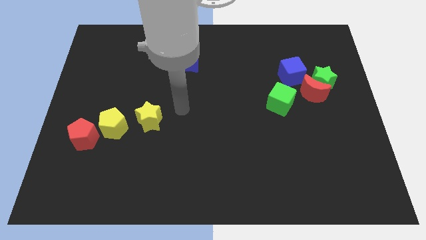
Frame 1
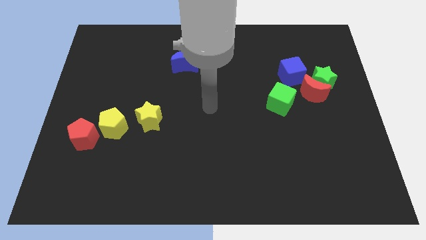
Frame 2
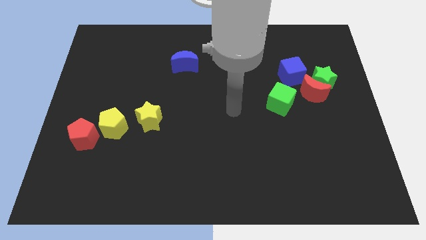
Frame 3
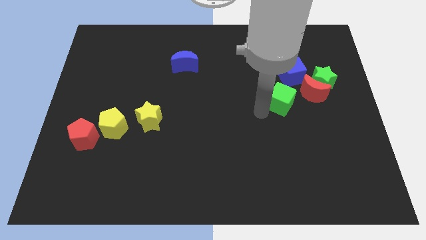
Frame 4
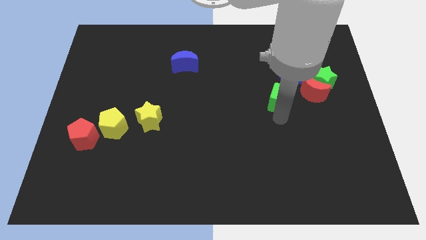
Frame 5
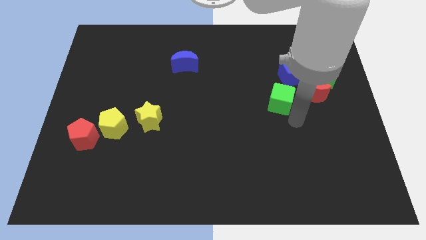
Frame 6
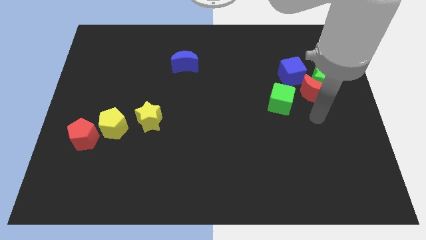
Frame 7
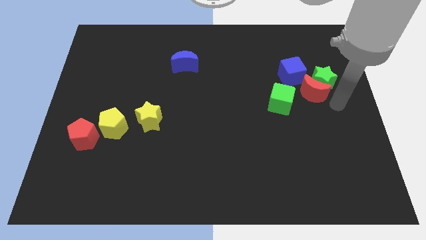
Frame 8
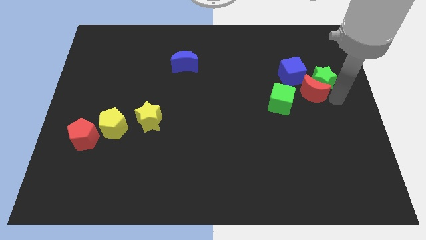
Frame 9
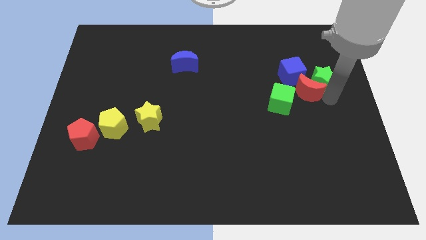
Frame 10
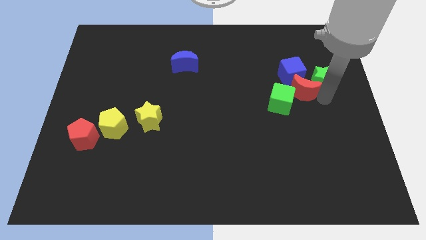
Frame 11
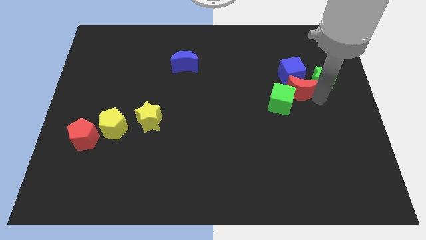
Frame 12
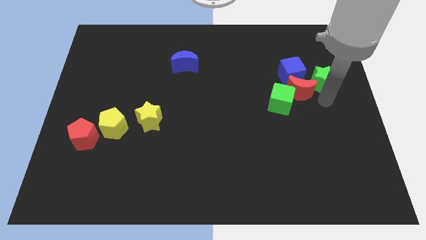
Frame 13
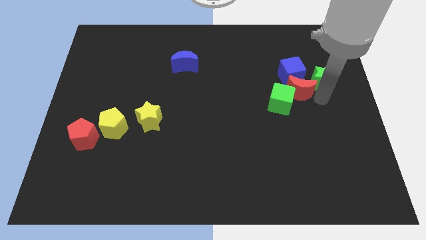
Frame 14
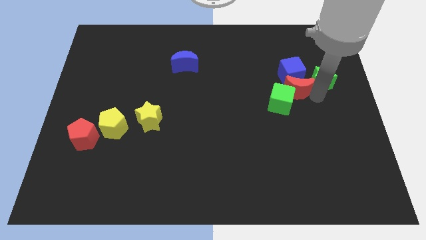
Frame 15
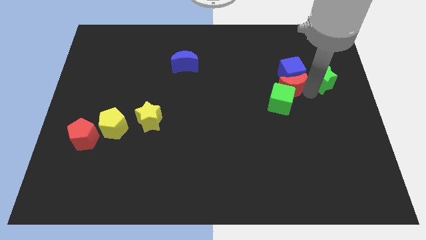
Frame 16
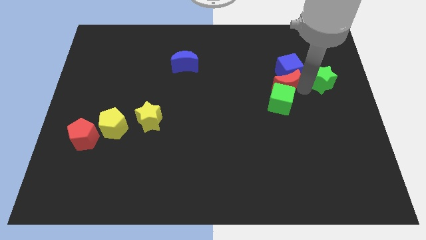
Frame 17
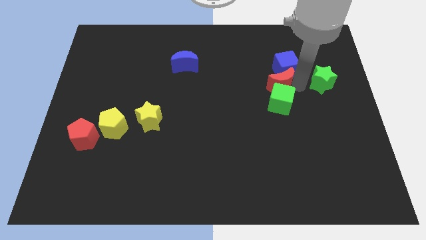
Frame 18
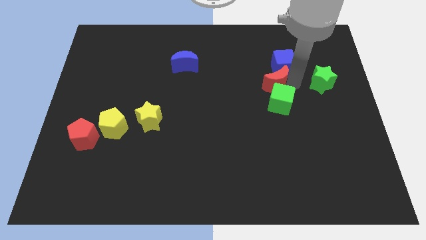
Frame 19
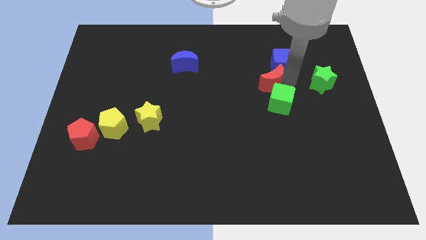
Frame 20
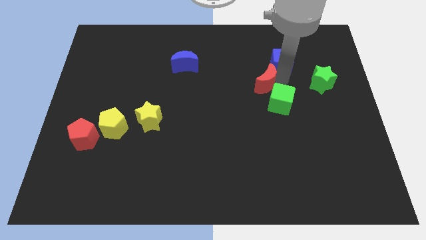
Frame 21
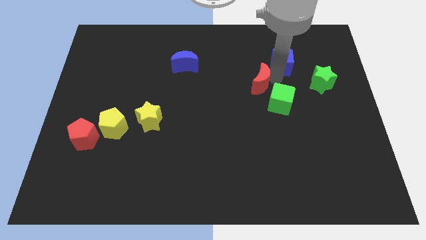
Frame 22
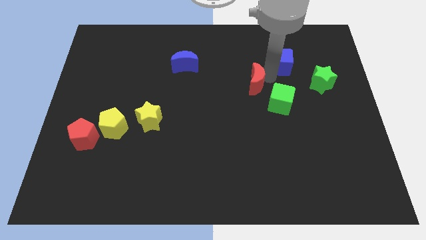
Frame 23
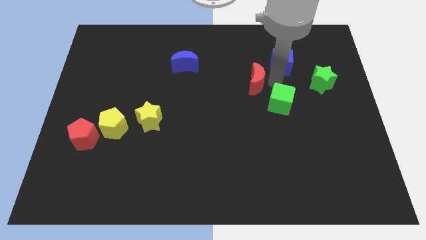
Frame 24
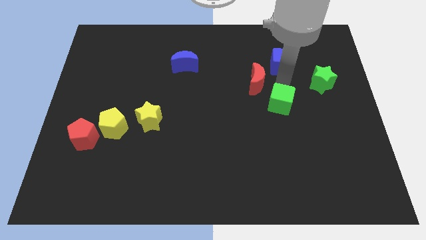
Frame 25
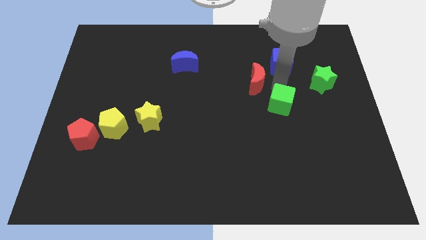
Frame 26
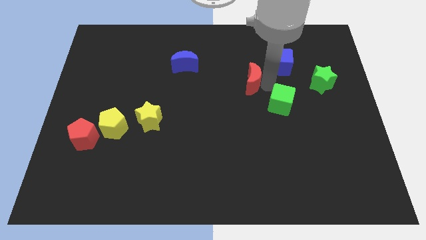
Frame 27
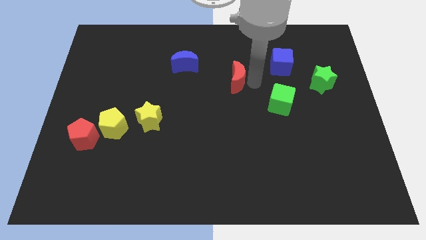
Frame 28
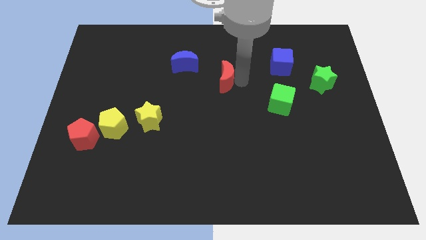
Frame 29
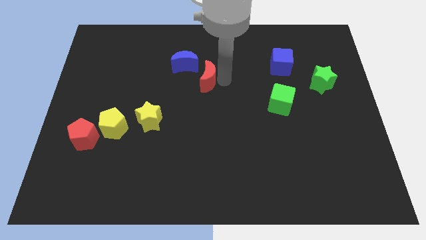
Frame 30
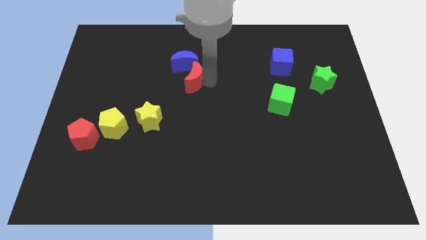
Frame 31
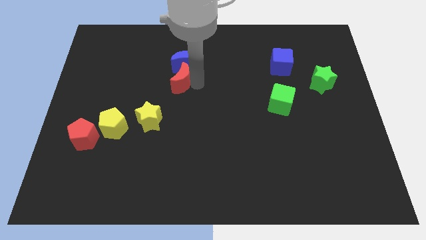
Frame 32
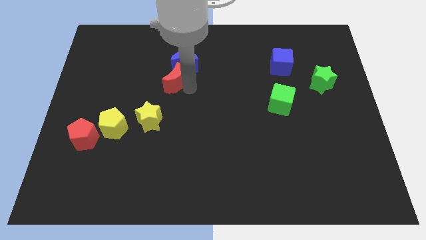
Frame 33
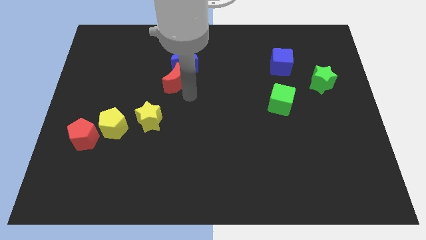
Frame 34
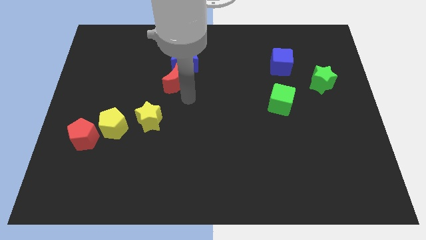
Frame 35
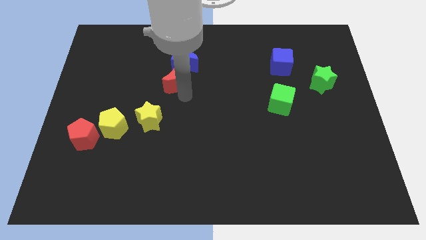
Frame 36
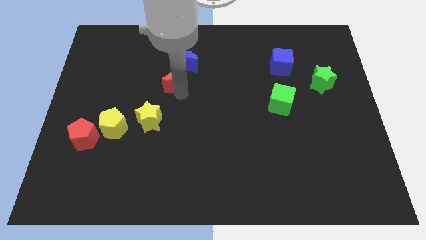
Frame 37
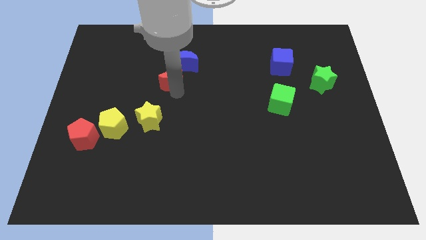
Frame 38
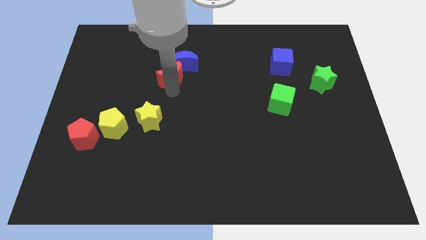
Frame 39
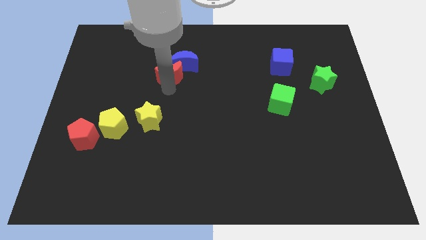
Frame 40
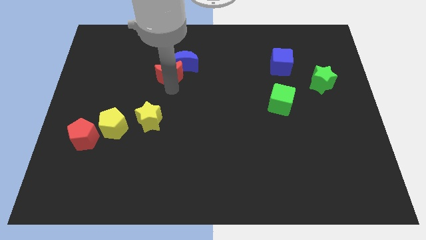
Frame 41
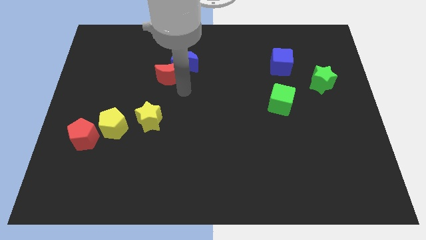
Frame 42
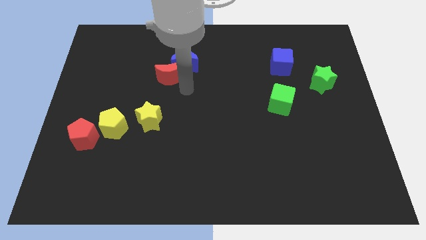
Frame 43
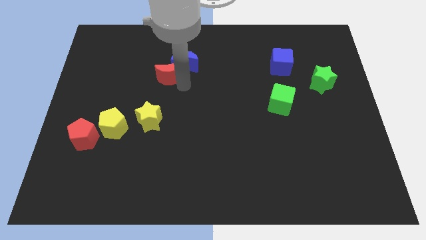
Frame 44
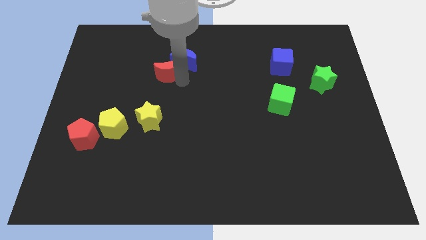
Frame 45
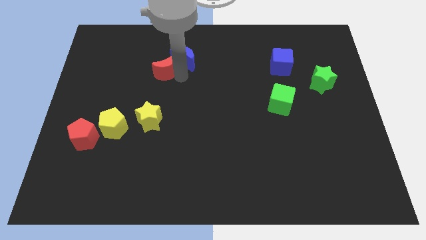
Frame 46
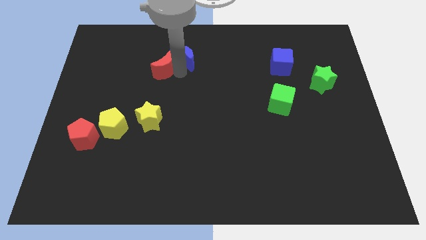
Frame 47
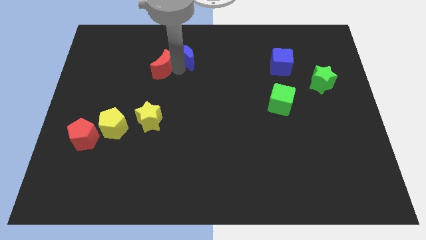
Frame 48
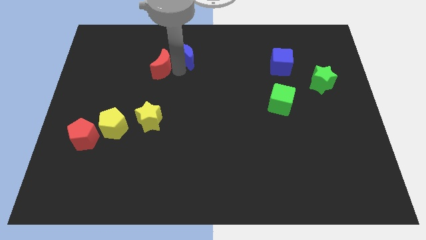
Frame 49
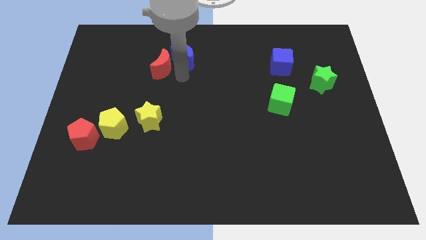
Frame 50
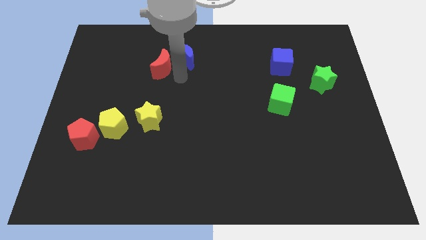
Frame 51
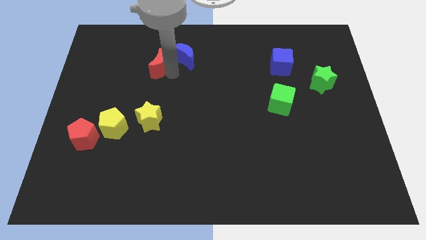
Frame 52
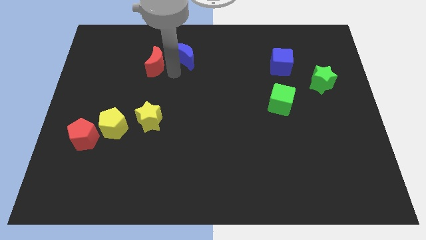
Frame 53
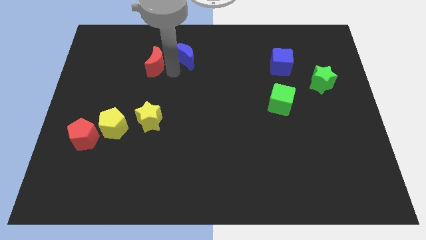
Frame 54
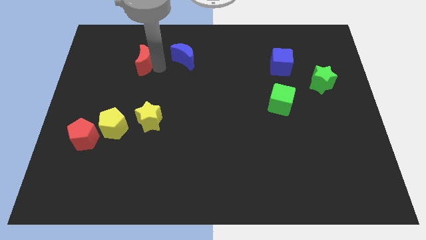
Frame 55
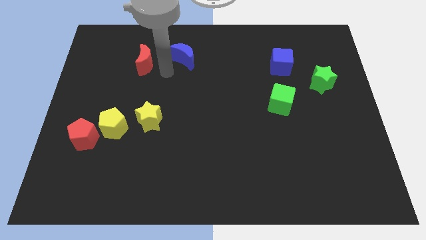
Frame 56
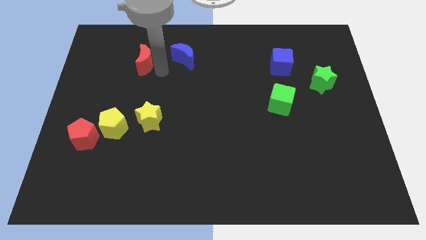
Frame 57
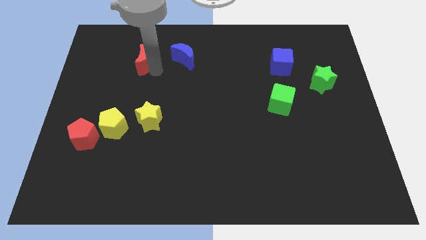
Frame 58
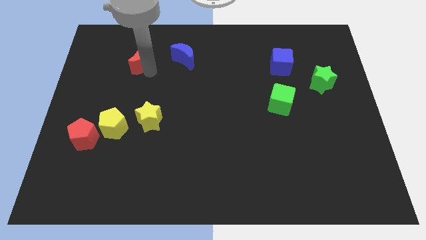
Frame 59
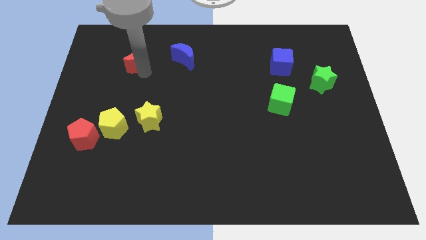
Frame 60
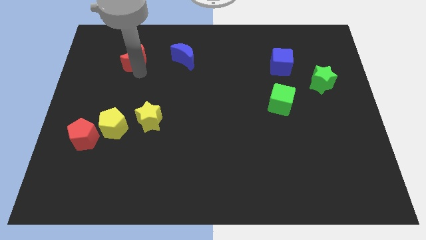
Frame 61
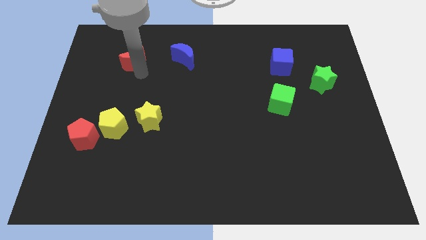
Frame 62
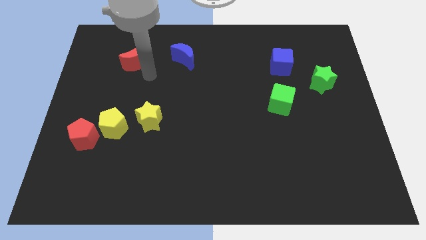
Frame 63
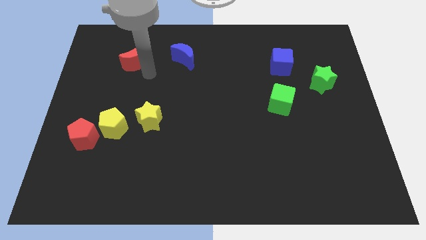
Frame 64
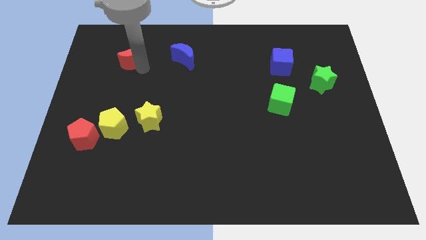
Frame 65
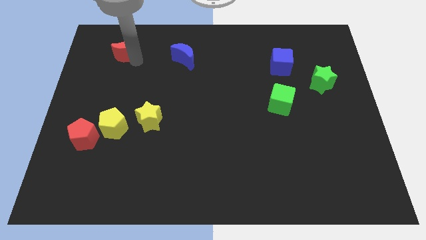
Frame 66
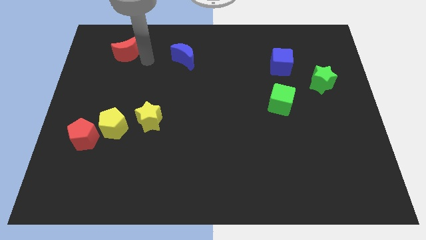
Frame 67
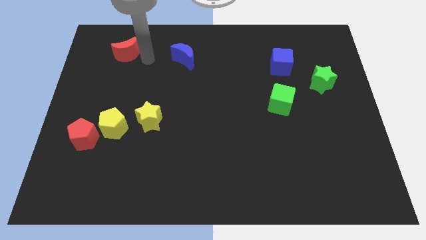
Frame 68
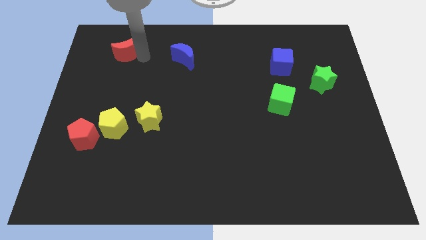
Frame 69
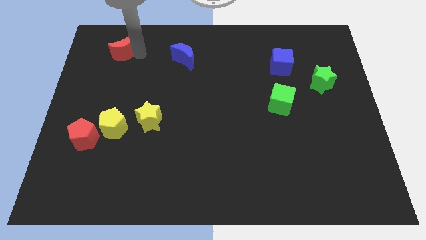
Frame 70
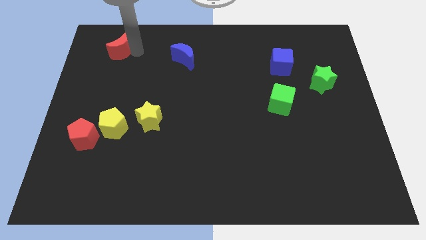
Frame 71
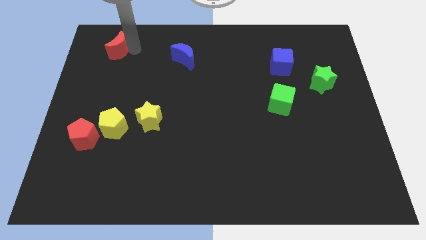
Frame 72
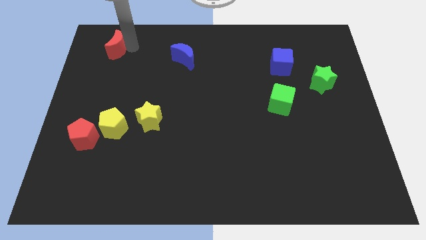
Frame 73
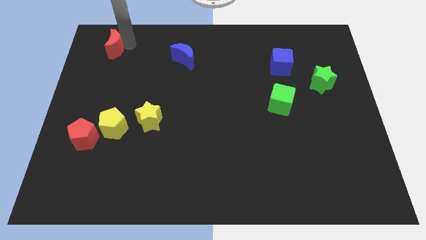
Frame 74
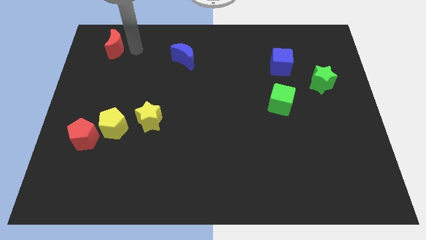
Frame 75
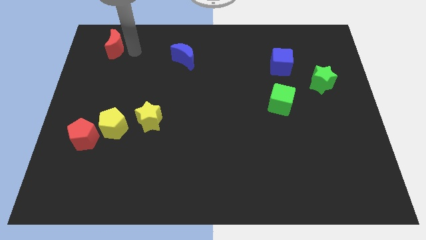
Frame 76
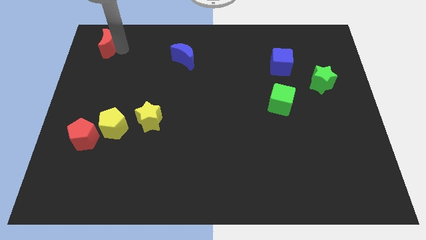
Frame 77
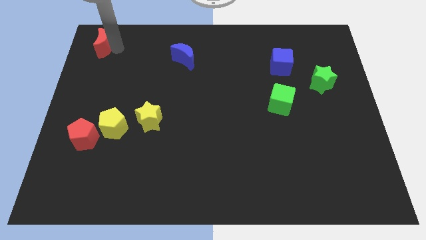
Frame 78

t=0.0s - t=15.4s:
move the red moon to the top left of the board
